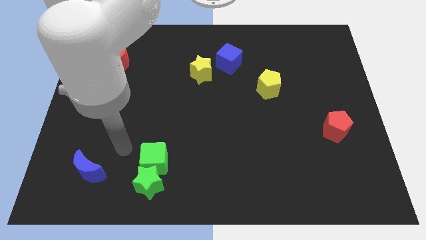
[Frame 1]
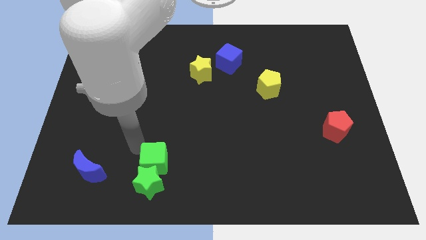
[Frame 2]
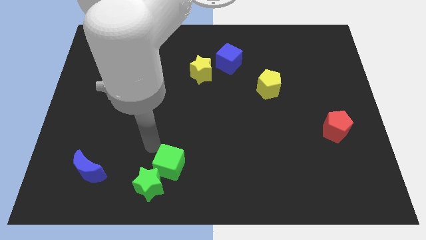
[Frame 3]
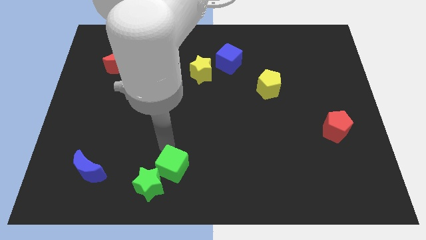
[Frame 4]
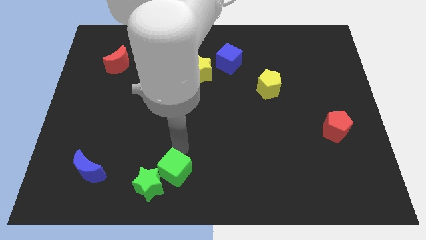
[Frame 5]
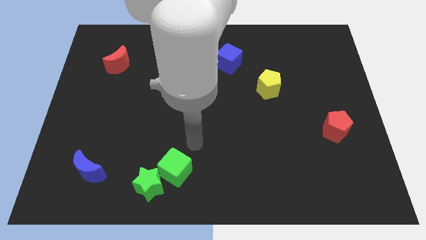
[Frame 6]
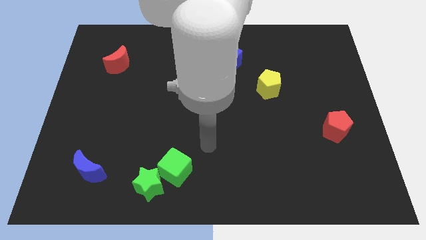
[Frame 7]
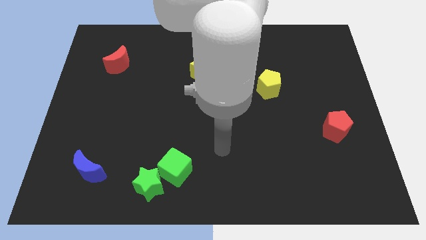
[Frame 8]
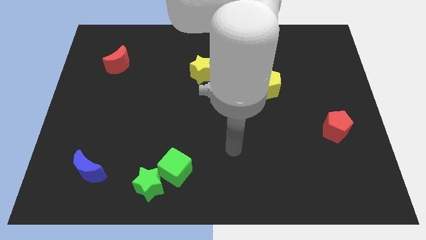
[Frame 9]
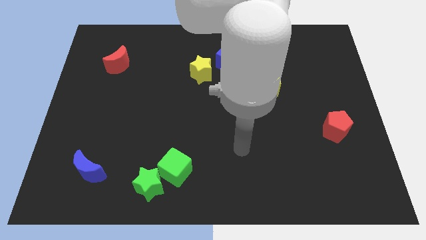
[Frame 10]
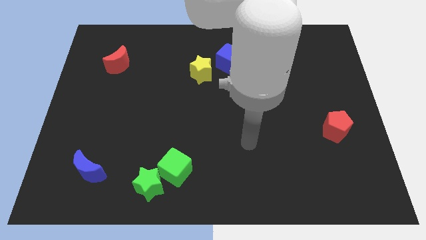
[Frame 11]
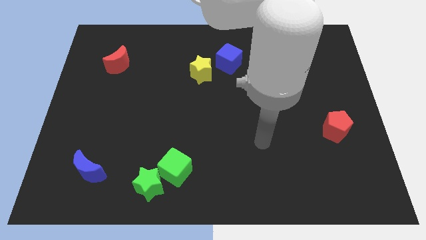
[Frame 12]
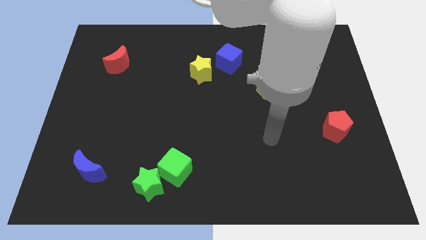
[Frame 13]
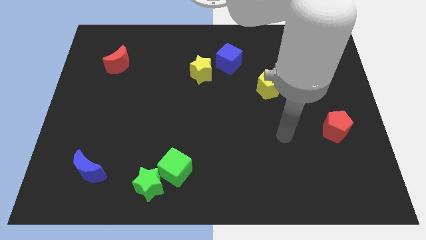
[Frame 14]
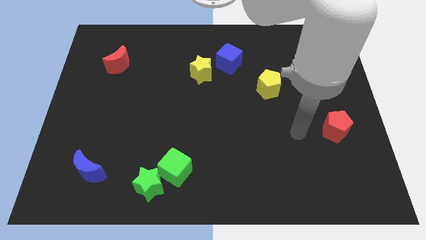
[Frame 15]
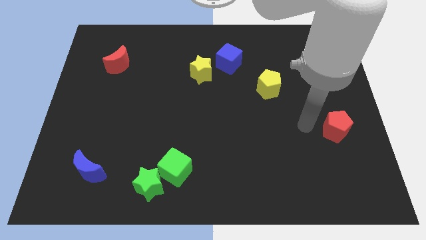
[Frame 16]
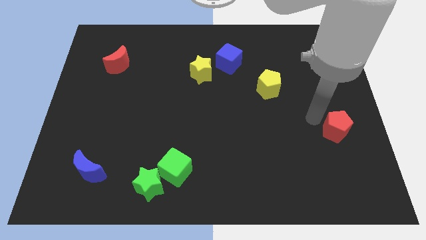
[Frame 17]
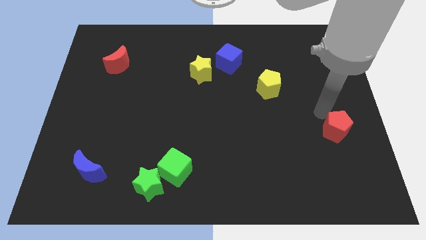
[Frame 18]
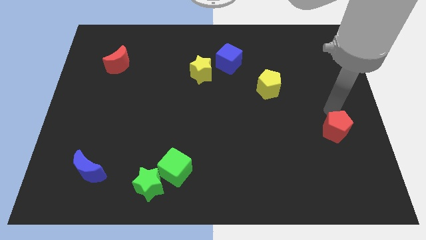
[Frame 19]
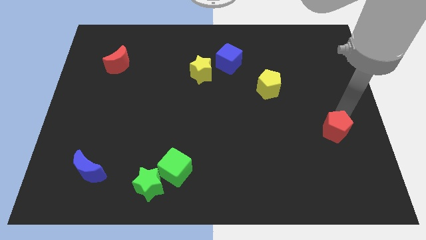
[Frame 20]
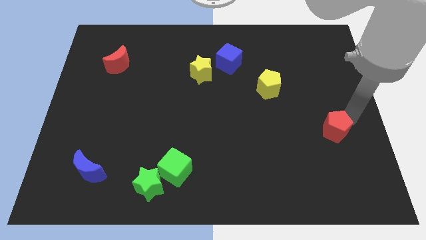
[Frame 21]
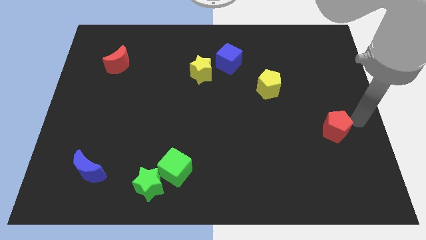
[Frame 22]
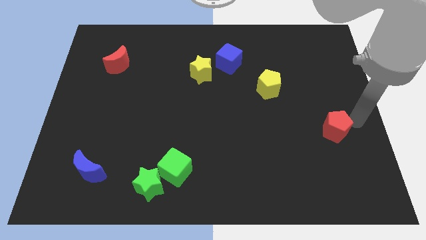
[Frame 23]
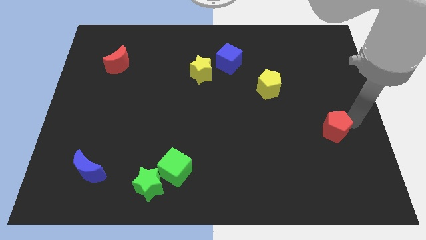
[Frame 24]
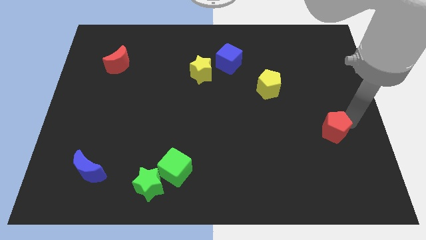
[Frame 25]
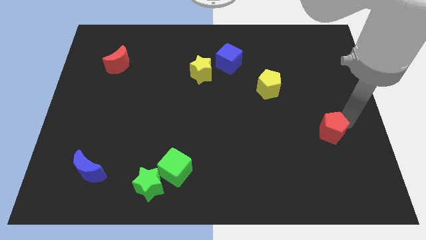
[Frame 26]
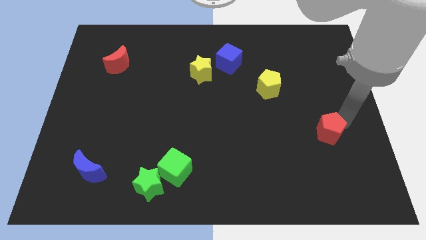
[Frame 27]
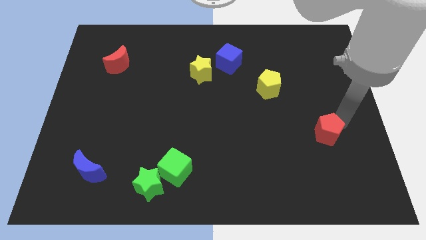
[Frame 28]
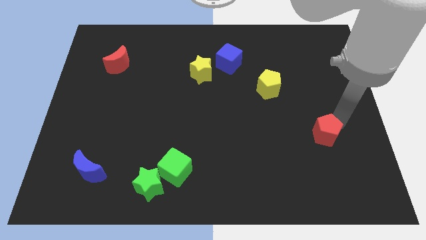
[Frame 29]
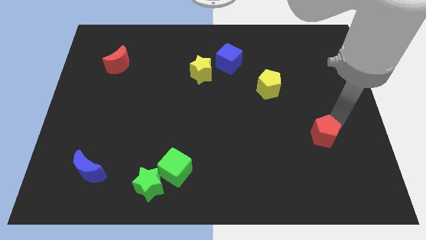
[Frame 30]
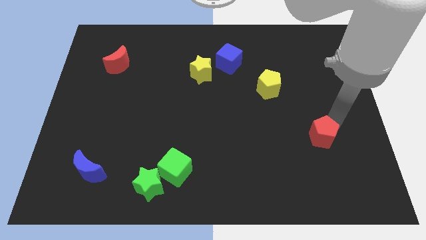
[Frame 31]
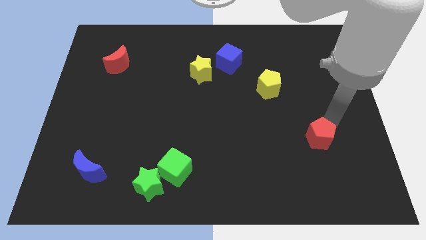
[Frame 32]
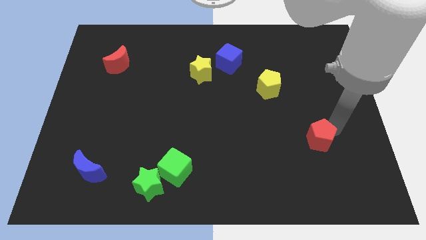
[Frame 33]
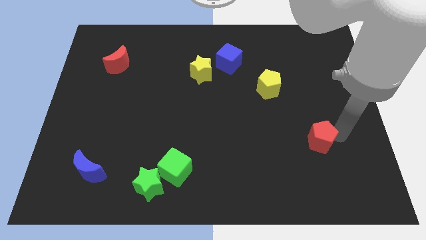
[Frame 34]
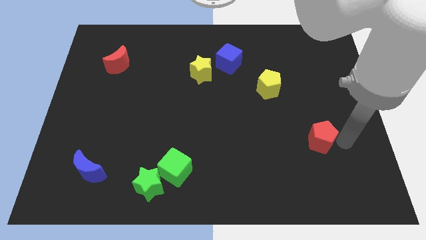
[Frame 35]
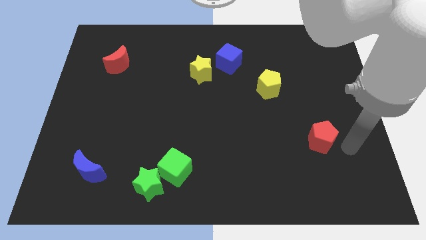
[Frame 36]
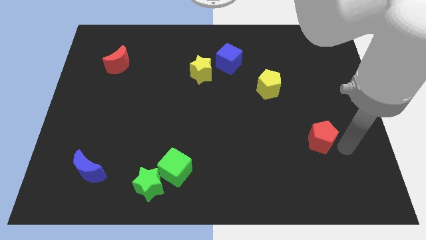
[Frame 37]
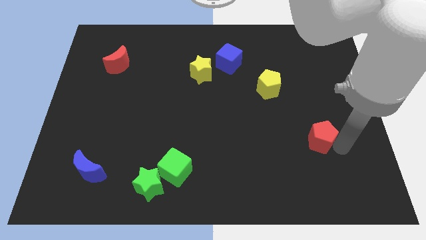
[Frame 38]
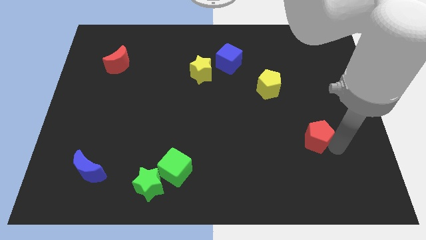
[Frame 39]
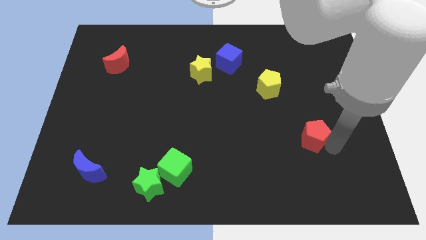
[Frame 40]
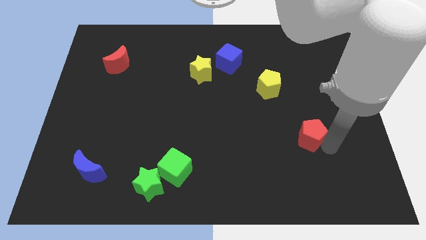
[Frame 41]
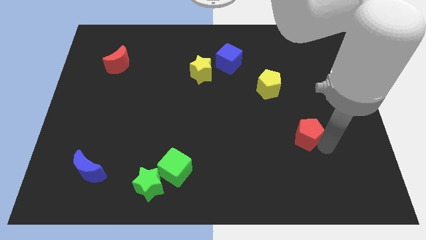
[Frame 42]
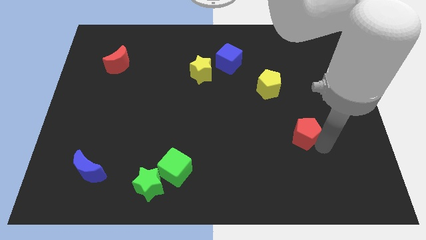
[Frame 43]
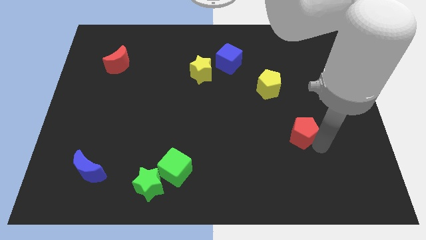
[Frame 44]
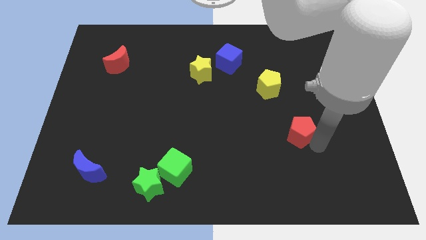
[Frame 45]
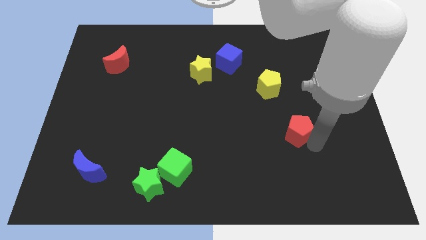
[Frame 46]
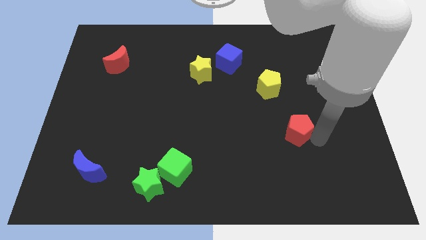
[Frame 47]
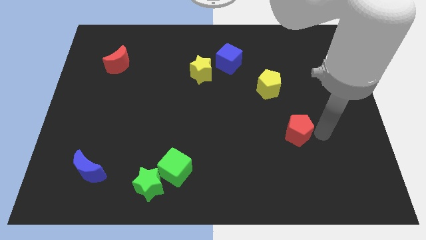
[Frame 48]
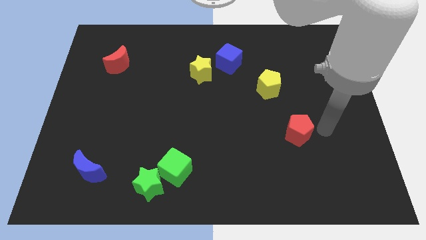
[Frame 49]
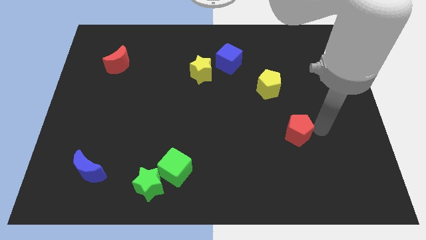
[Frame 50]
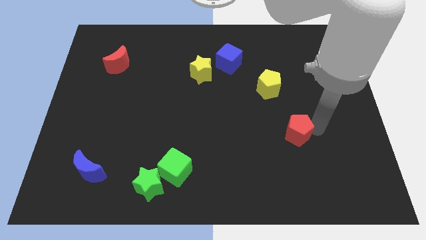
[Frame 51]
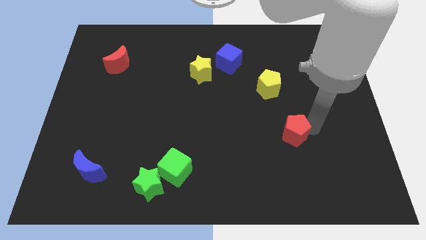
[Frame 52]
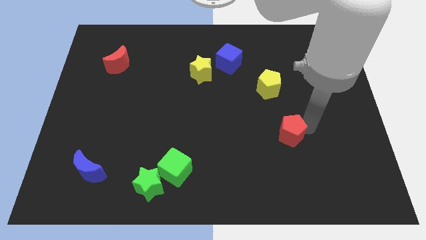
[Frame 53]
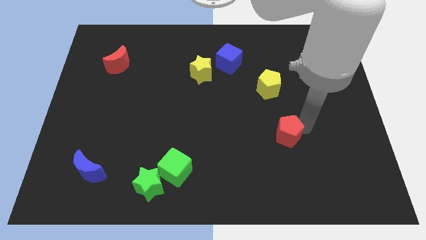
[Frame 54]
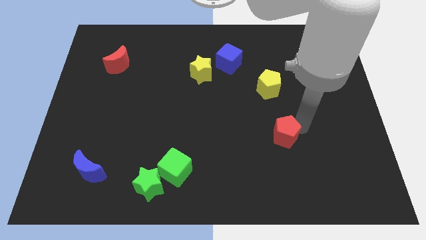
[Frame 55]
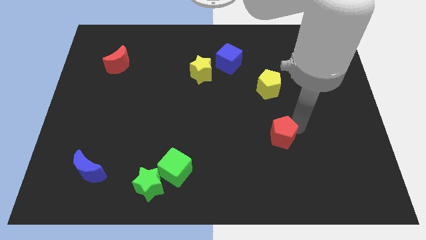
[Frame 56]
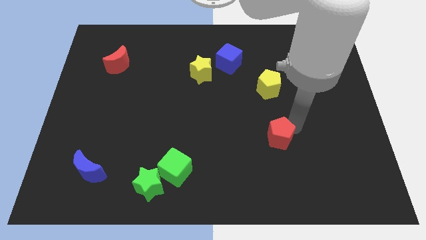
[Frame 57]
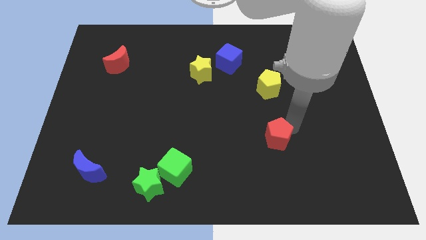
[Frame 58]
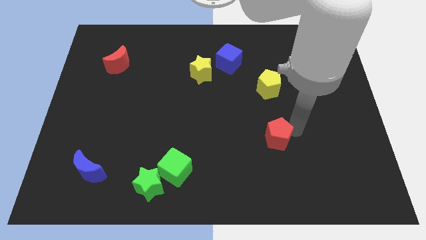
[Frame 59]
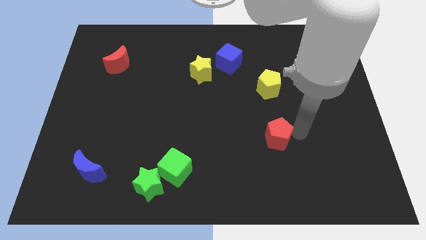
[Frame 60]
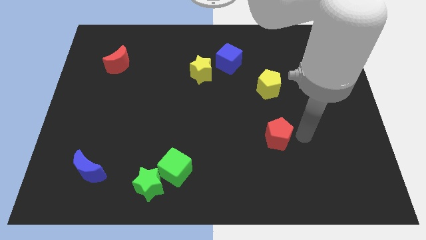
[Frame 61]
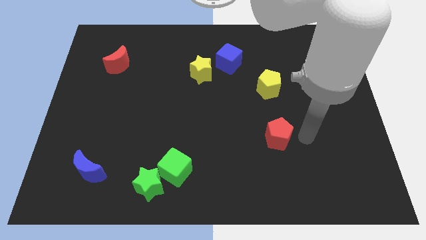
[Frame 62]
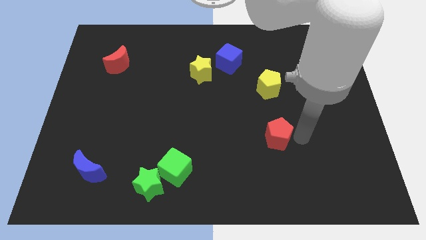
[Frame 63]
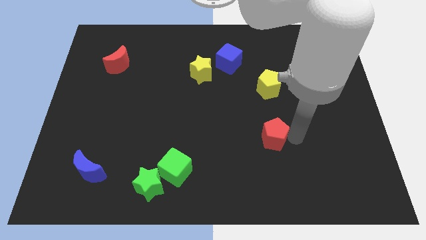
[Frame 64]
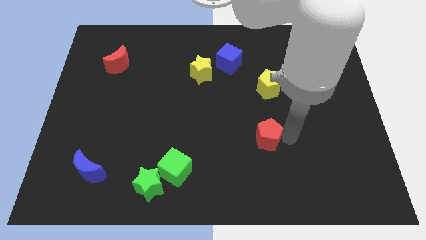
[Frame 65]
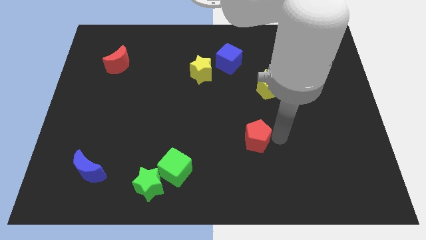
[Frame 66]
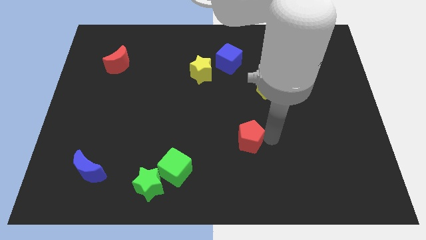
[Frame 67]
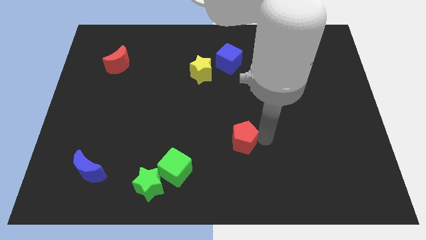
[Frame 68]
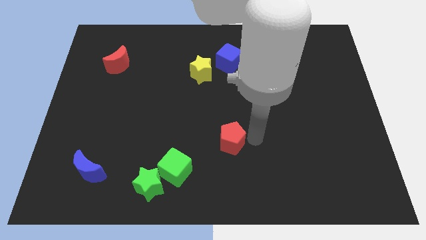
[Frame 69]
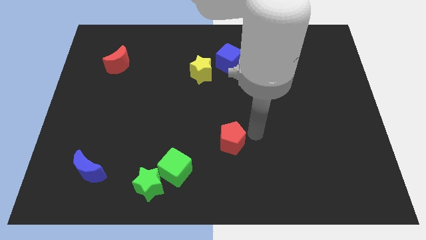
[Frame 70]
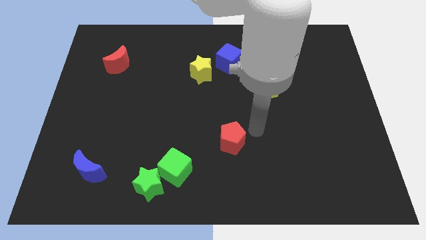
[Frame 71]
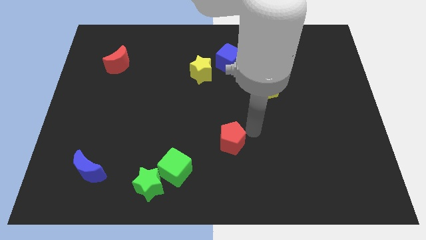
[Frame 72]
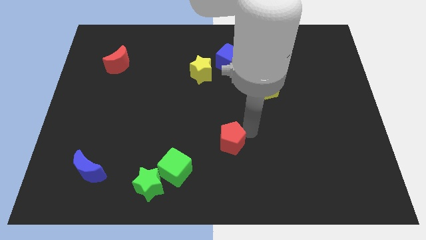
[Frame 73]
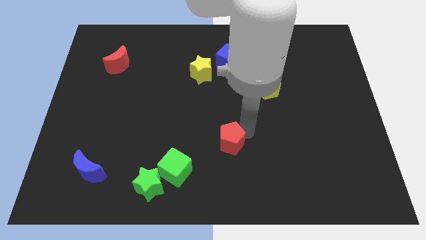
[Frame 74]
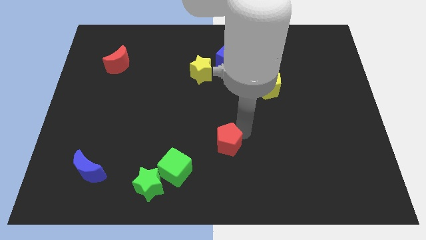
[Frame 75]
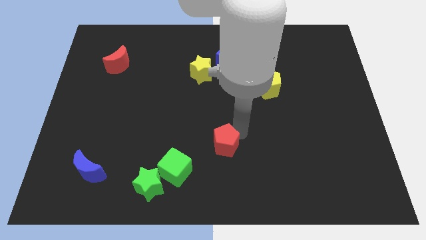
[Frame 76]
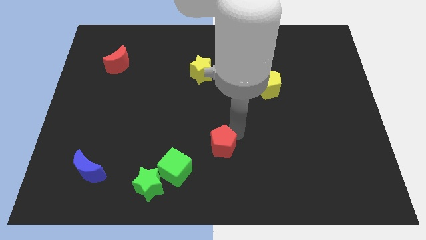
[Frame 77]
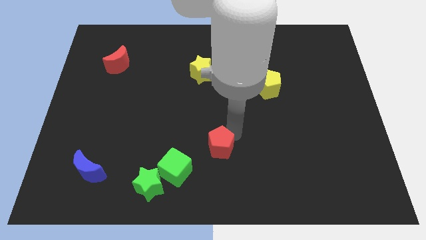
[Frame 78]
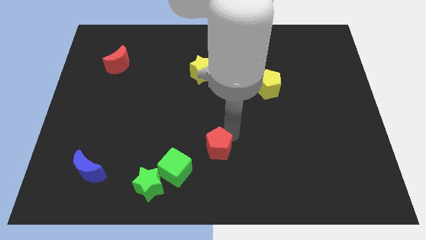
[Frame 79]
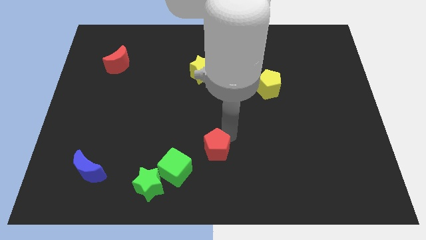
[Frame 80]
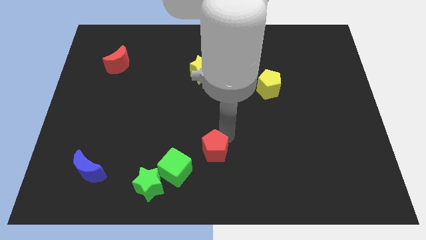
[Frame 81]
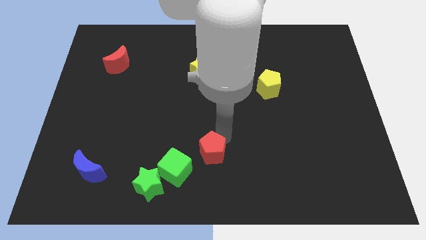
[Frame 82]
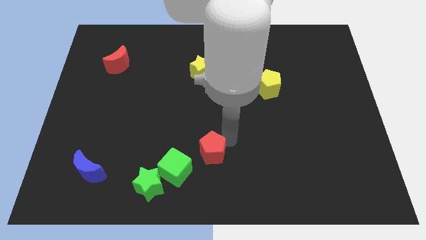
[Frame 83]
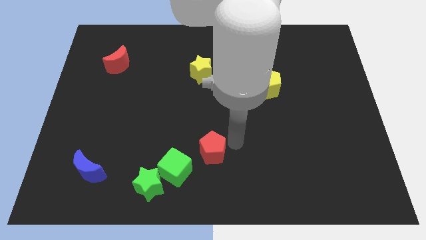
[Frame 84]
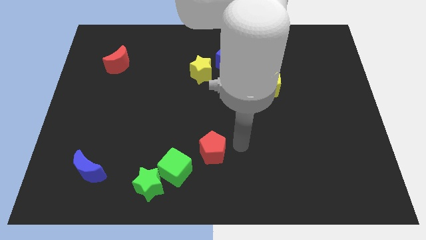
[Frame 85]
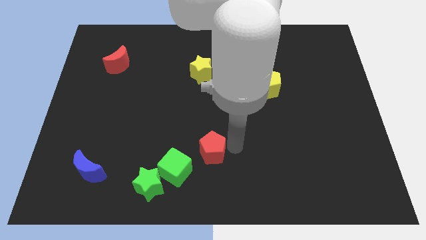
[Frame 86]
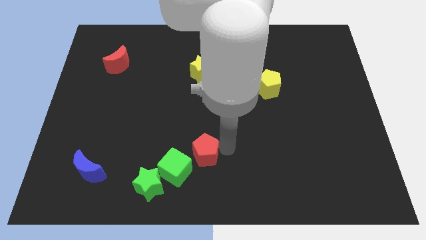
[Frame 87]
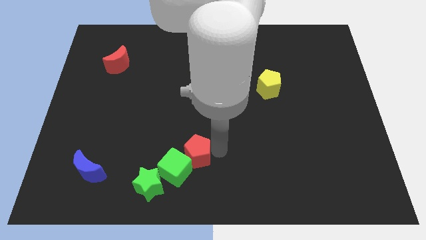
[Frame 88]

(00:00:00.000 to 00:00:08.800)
slide the red pentagon towards the green cube
